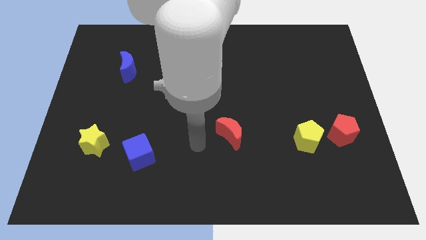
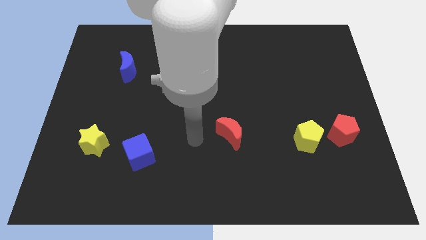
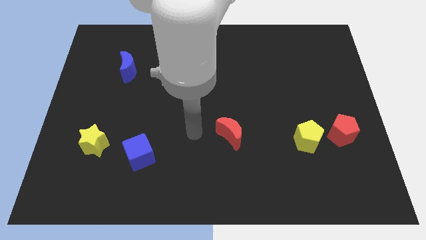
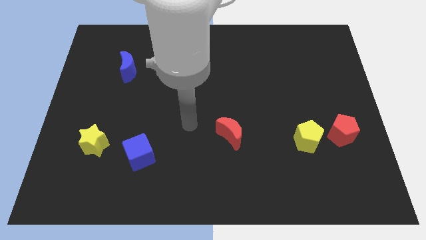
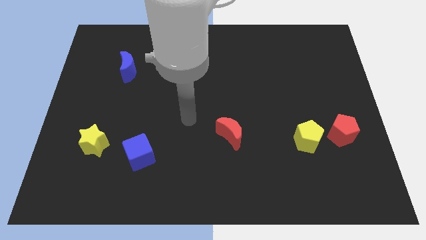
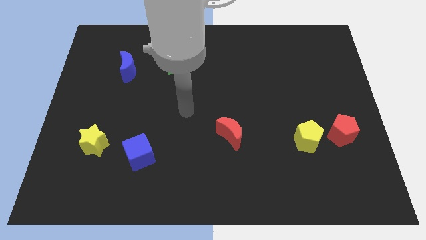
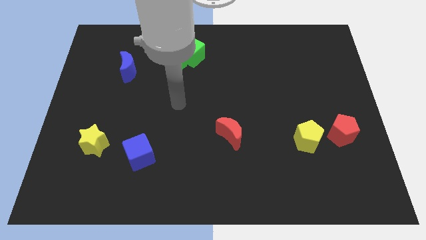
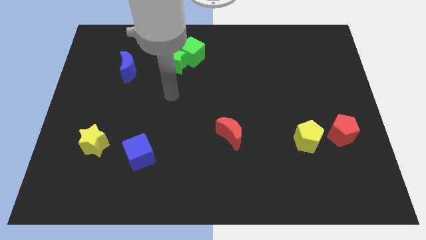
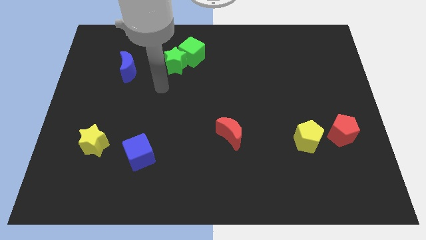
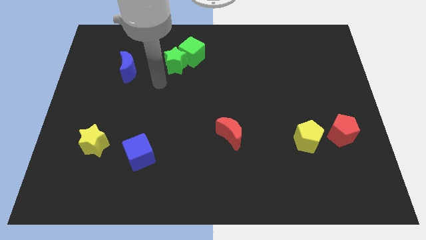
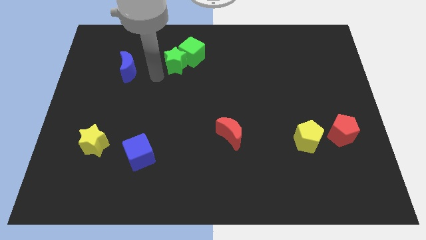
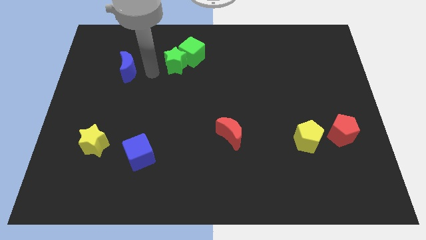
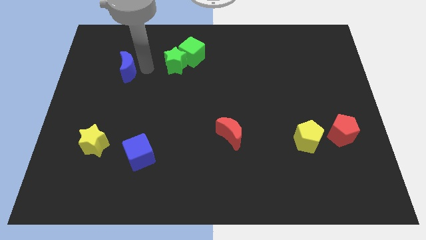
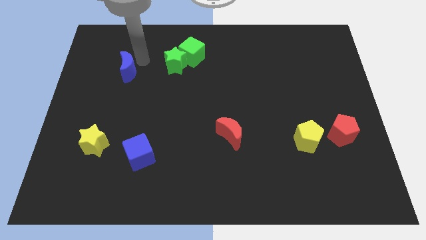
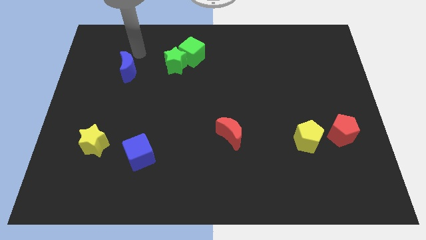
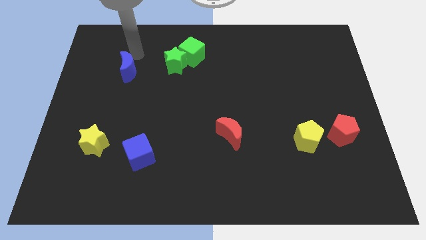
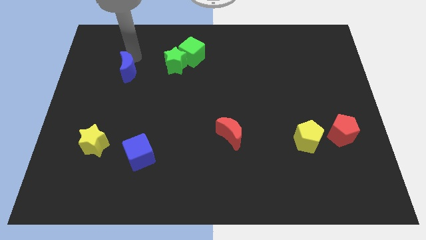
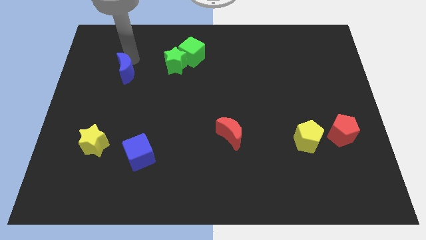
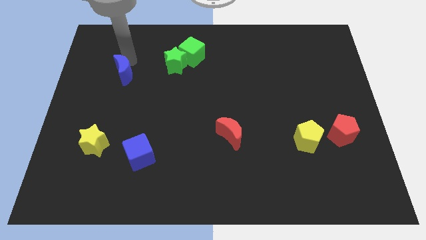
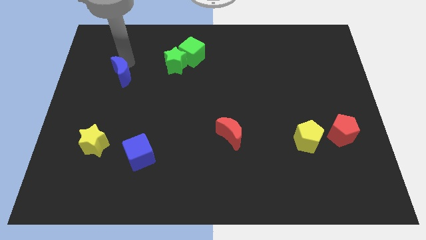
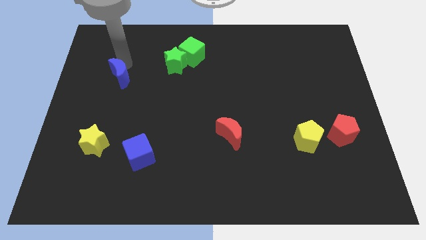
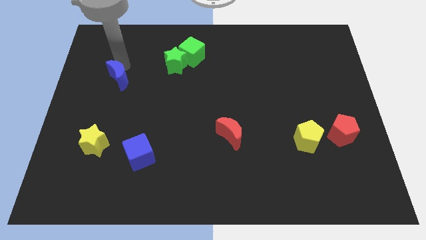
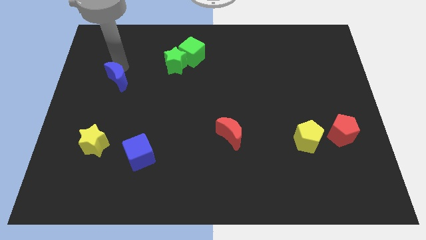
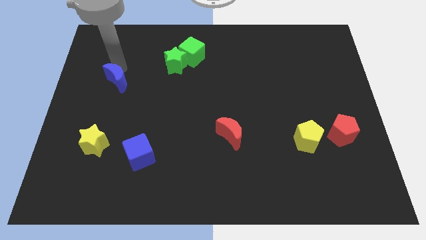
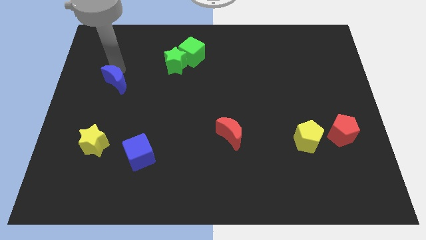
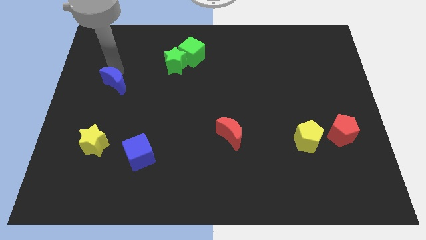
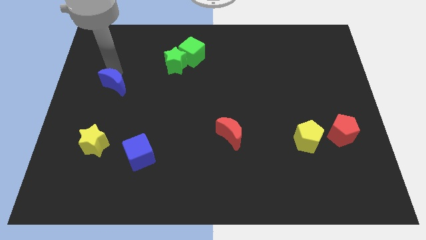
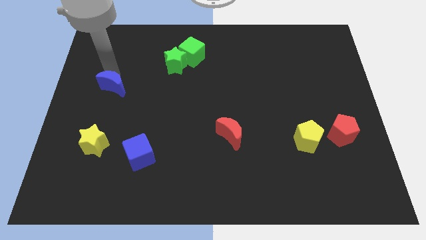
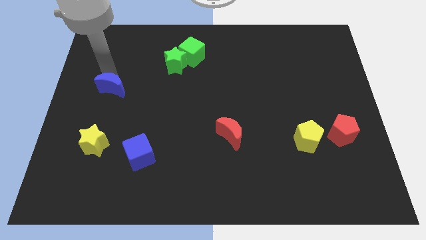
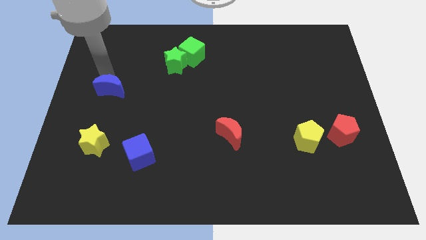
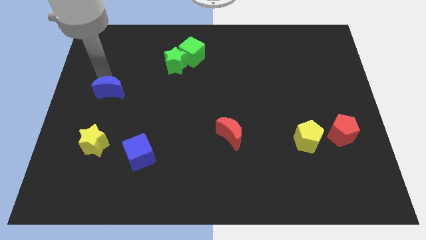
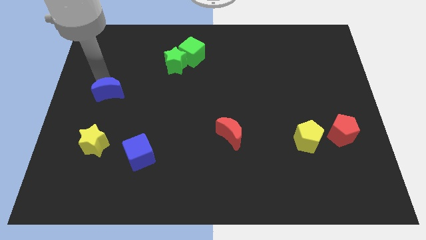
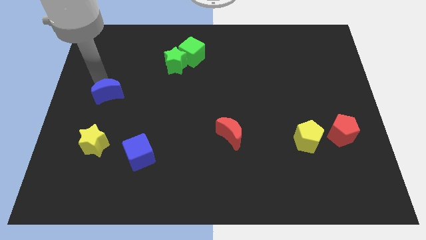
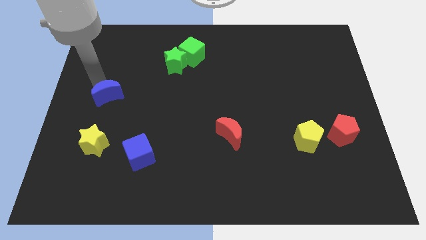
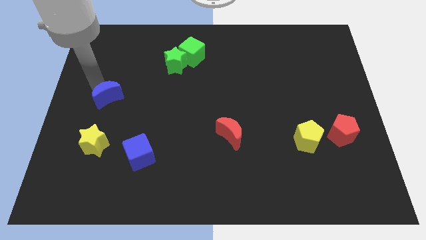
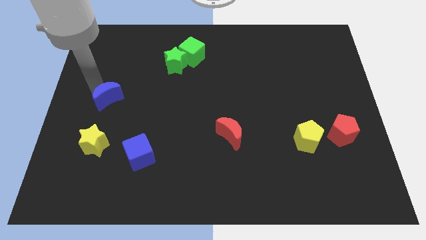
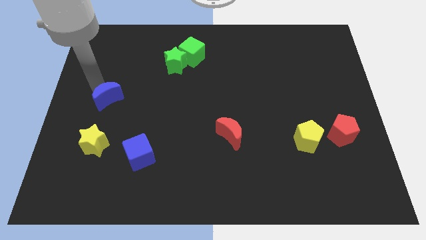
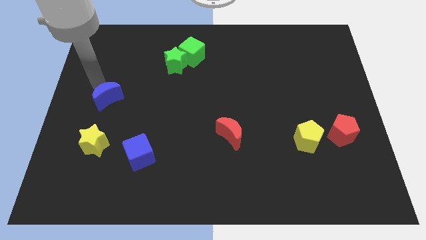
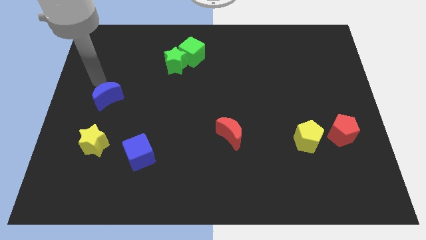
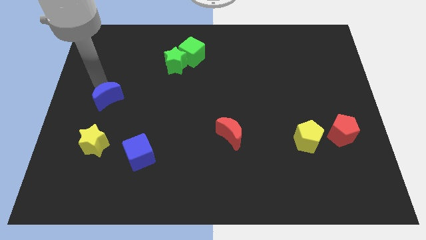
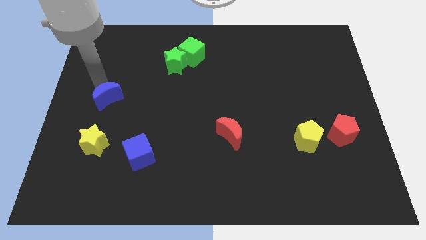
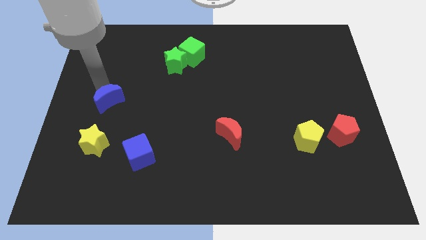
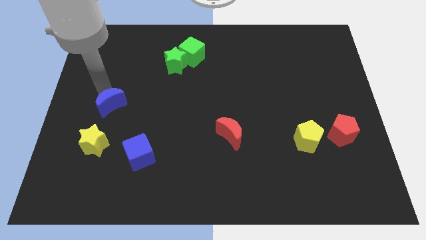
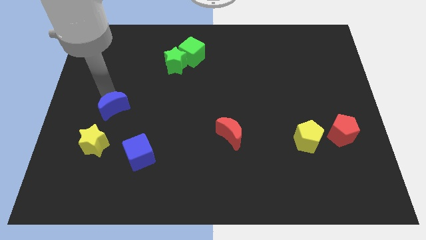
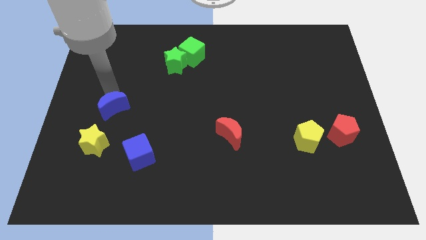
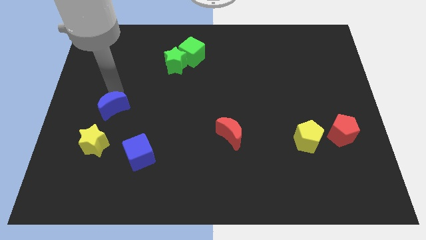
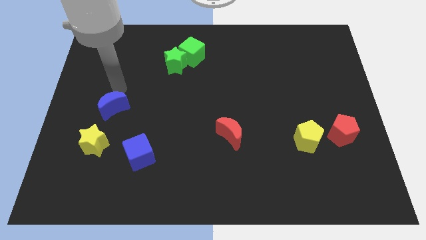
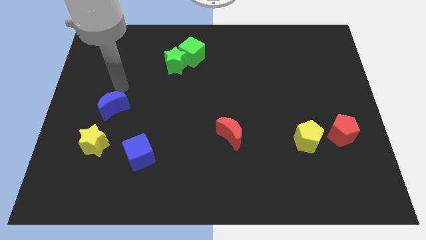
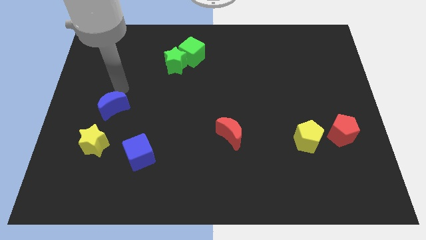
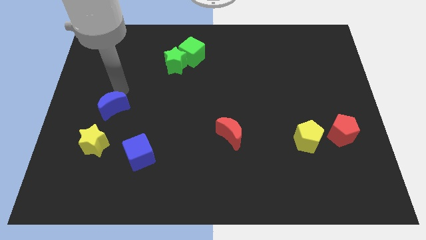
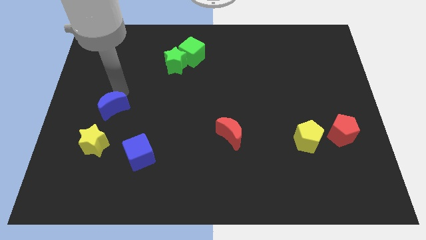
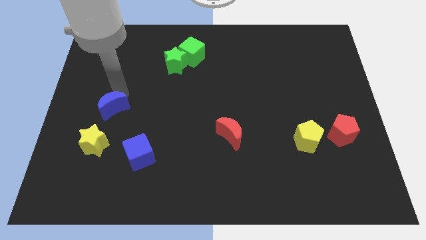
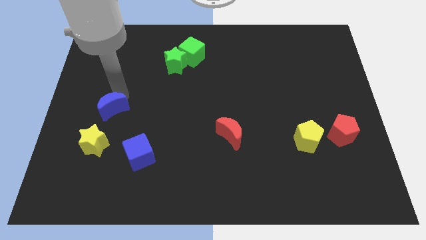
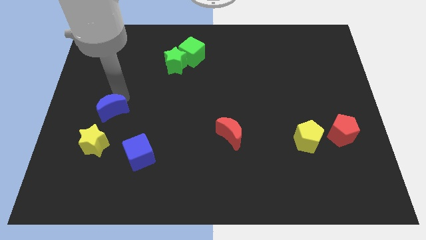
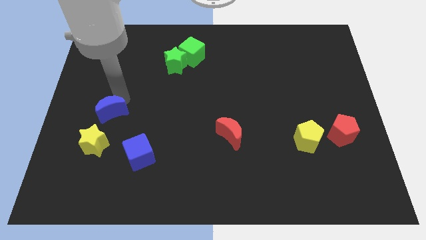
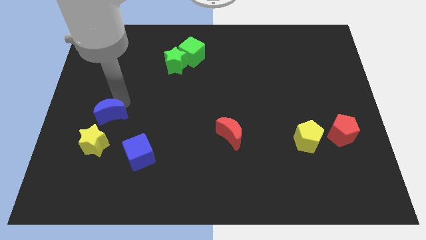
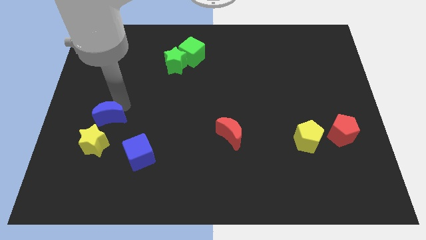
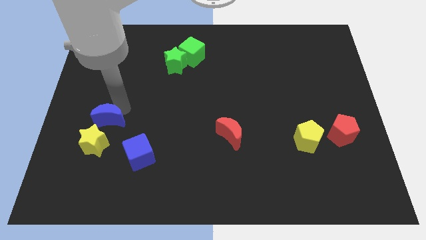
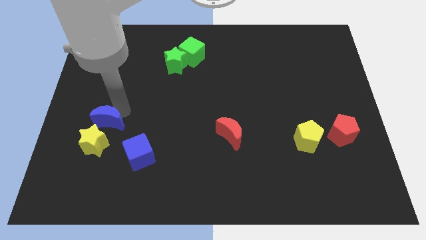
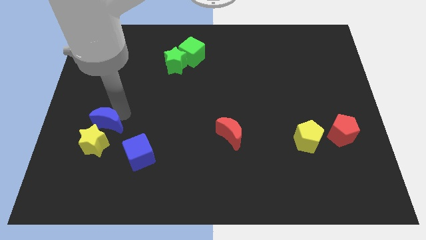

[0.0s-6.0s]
move the blue moon to the yellow star
